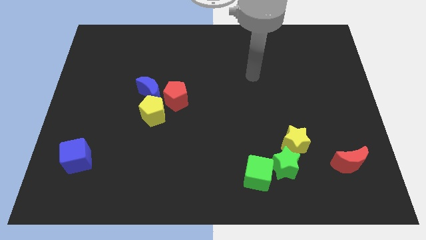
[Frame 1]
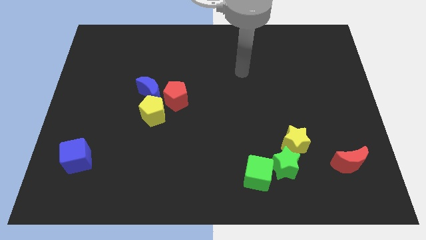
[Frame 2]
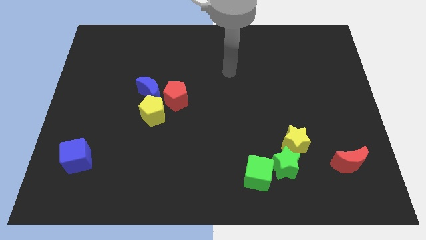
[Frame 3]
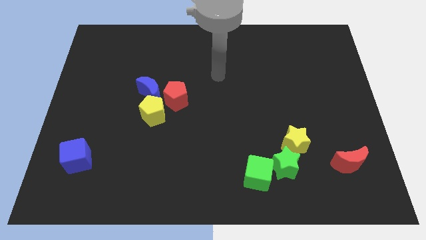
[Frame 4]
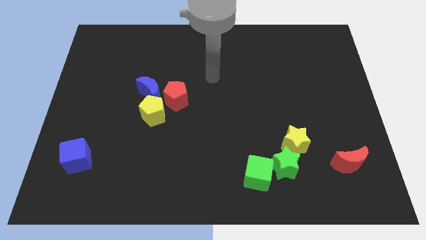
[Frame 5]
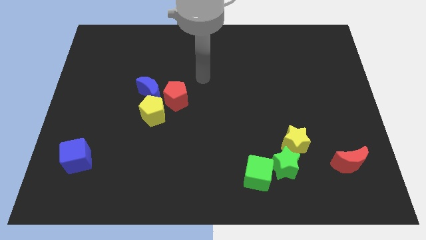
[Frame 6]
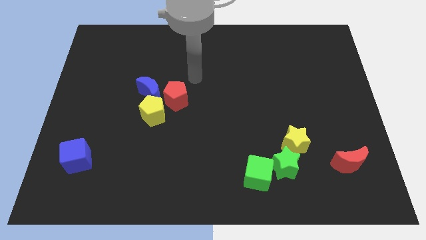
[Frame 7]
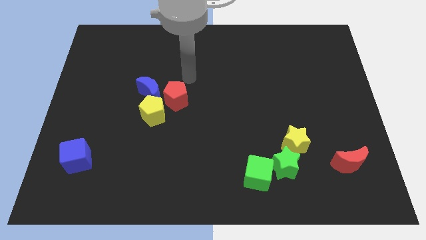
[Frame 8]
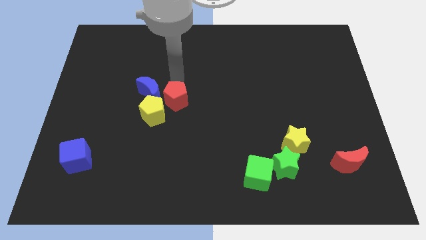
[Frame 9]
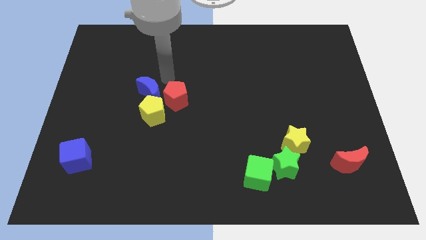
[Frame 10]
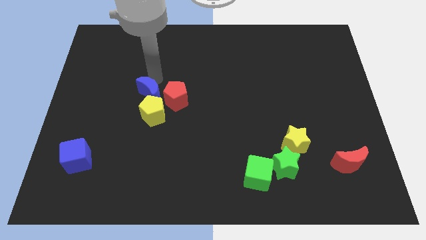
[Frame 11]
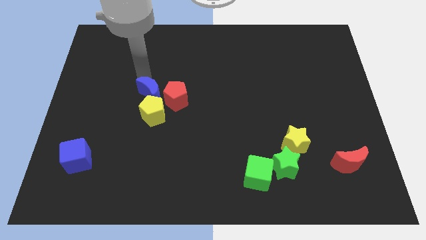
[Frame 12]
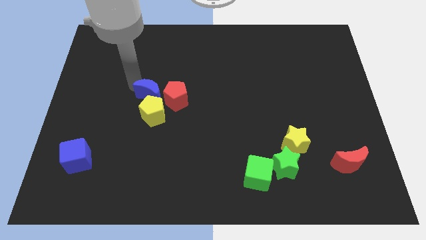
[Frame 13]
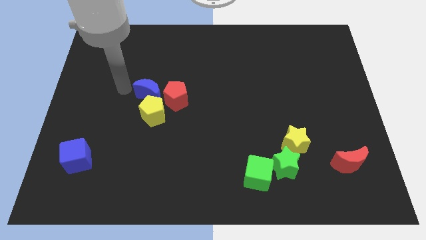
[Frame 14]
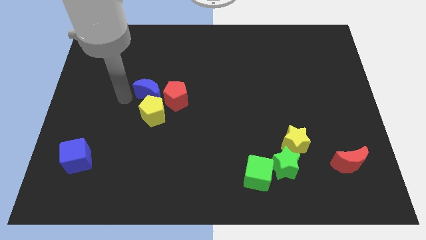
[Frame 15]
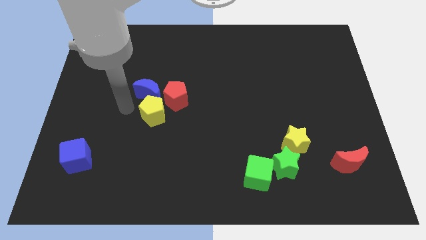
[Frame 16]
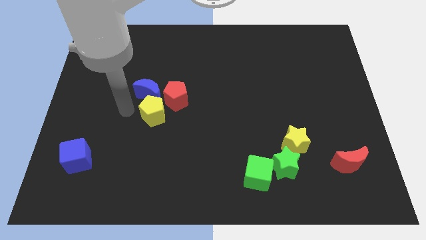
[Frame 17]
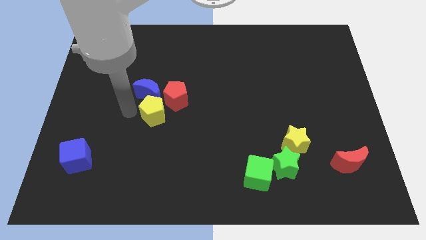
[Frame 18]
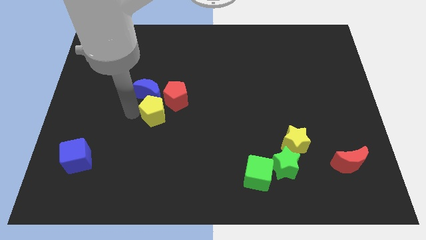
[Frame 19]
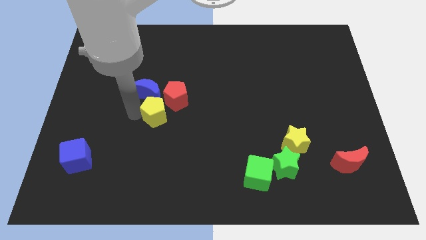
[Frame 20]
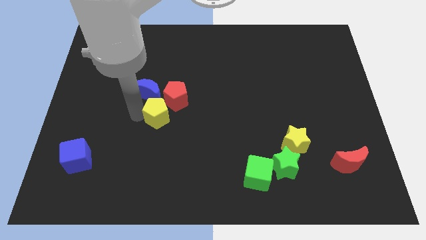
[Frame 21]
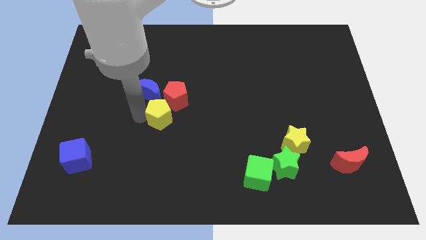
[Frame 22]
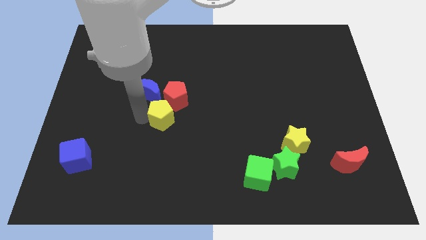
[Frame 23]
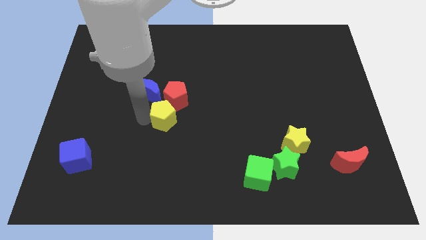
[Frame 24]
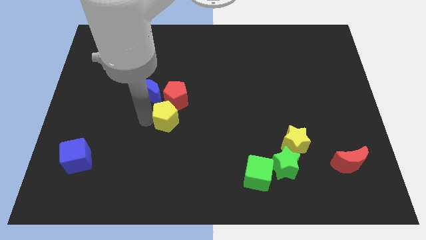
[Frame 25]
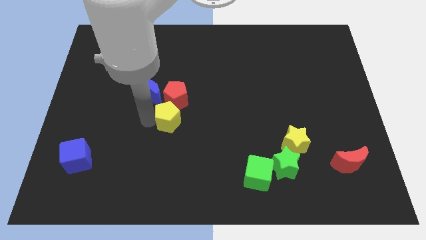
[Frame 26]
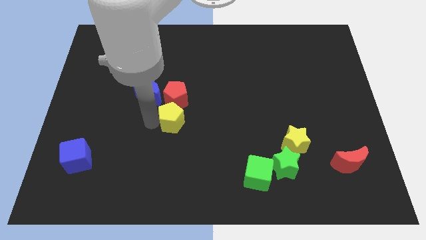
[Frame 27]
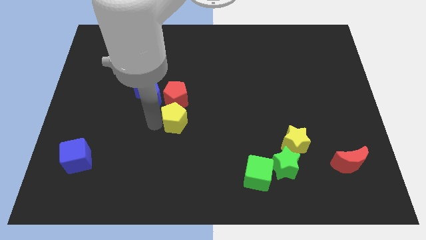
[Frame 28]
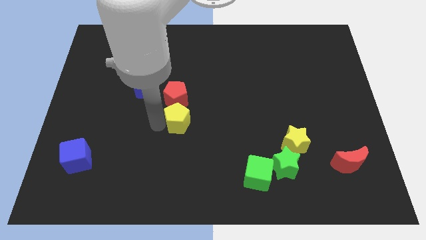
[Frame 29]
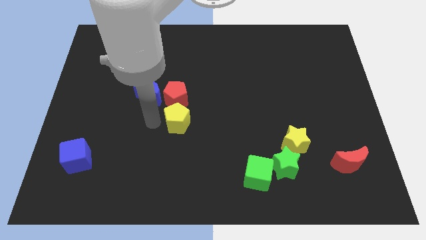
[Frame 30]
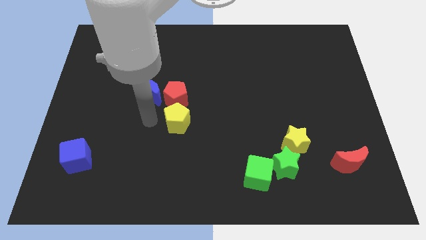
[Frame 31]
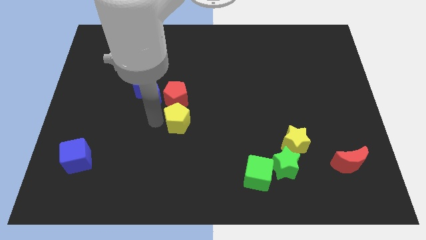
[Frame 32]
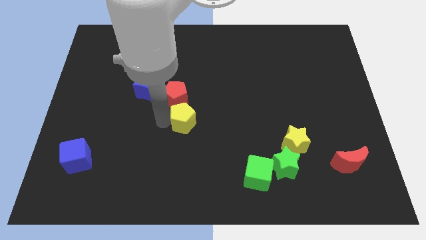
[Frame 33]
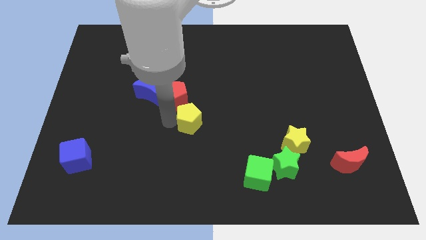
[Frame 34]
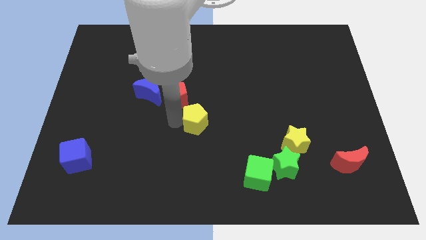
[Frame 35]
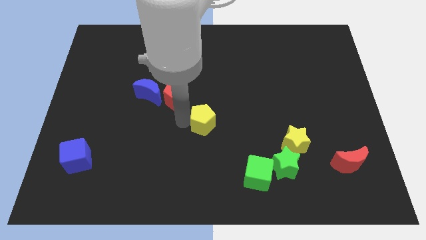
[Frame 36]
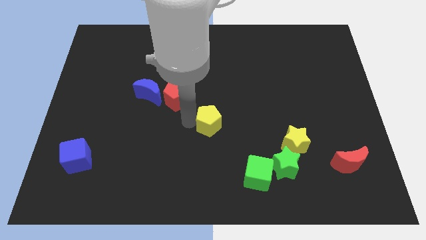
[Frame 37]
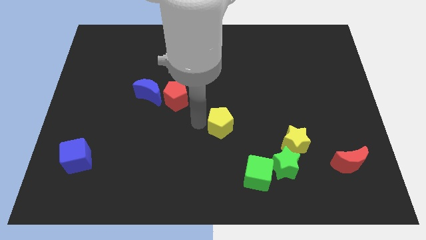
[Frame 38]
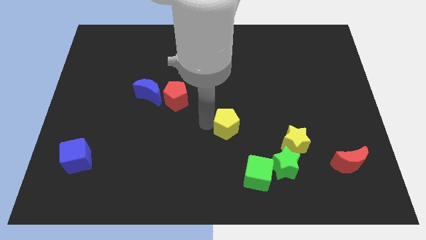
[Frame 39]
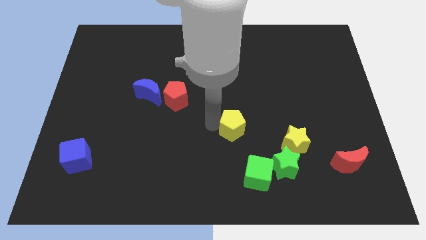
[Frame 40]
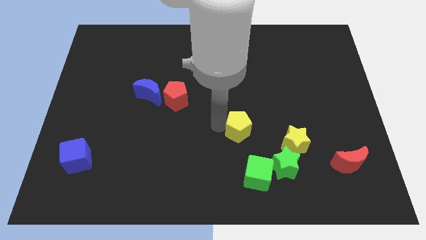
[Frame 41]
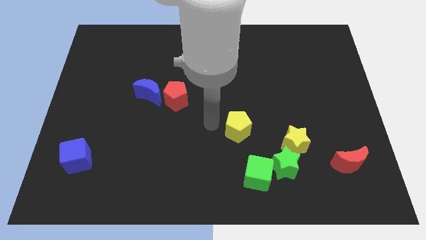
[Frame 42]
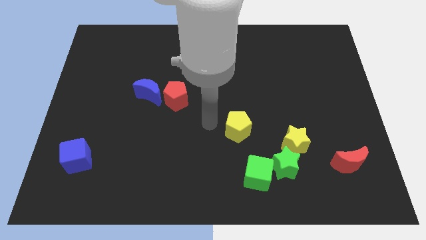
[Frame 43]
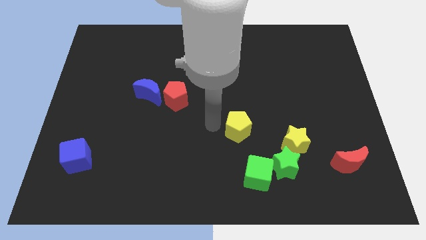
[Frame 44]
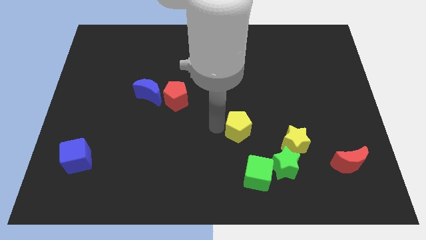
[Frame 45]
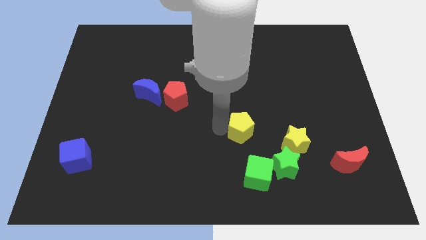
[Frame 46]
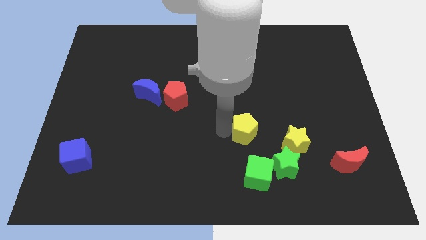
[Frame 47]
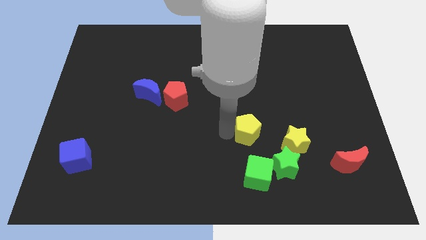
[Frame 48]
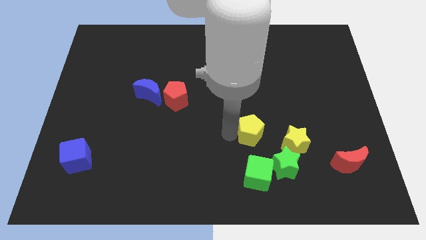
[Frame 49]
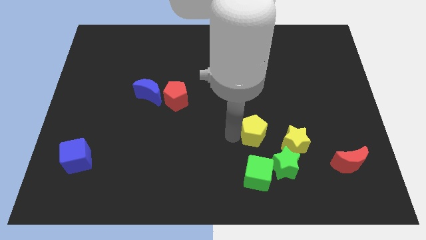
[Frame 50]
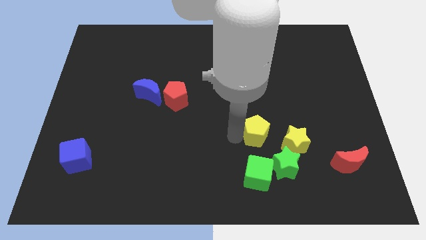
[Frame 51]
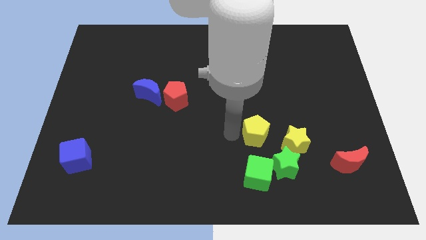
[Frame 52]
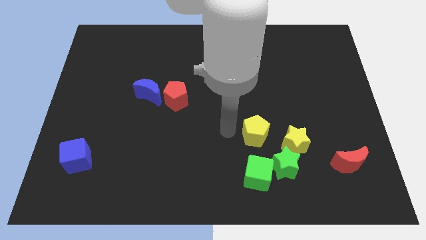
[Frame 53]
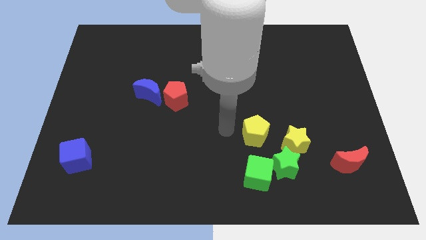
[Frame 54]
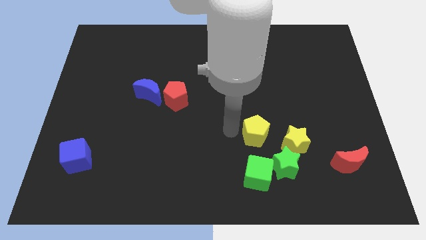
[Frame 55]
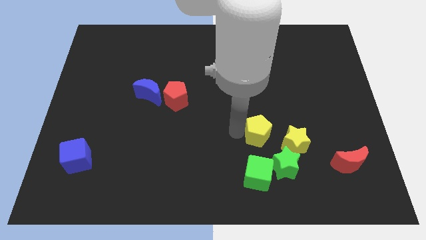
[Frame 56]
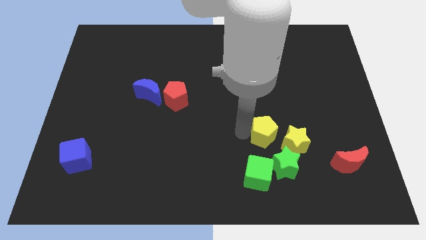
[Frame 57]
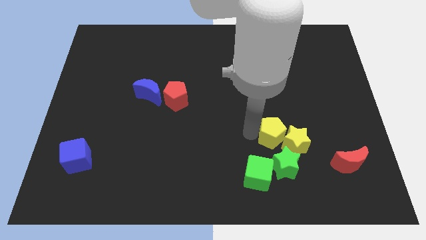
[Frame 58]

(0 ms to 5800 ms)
slide the yellow pentagon to the yellow star

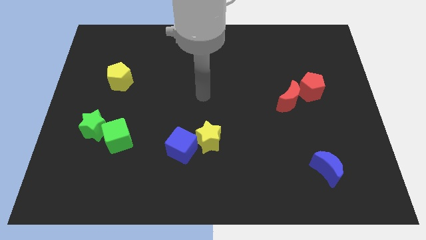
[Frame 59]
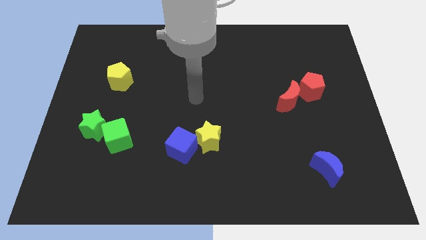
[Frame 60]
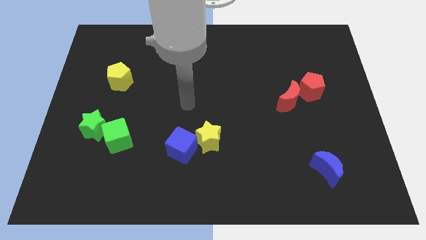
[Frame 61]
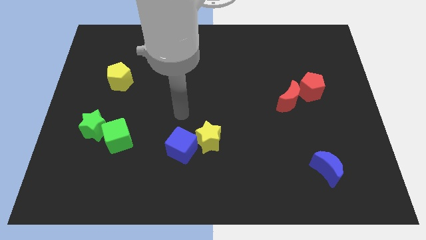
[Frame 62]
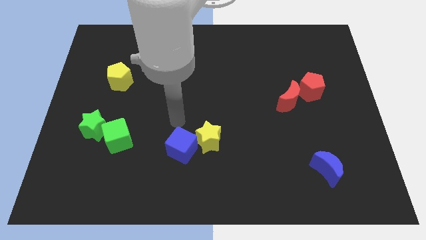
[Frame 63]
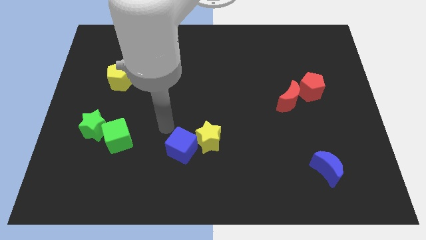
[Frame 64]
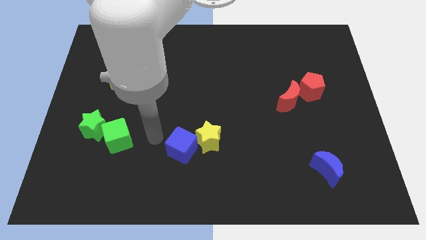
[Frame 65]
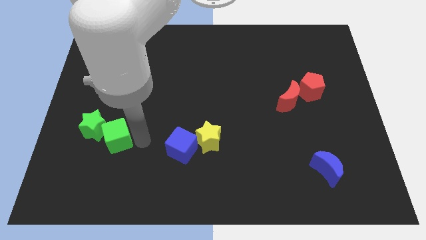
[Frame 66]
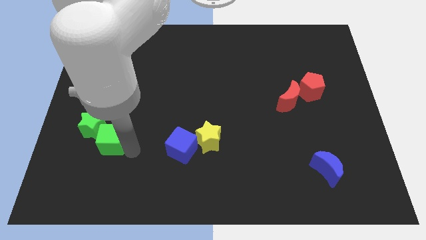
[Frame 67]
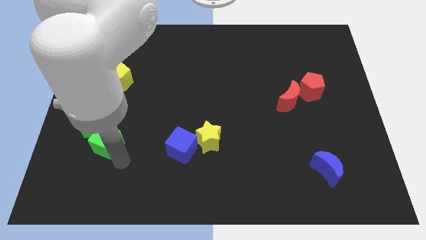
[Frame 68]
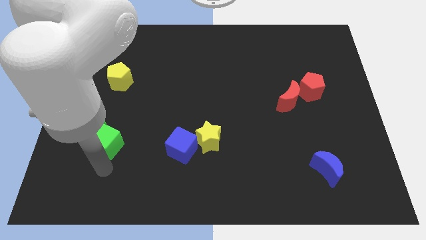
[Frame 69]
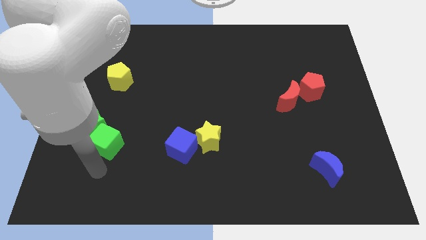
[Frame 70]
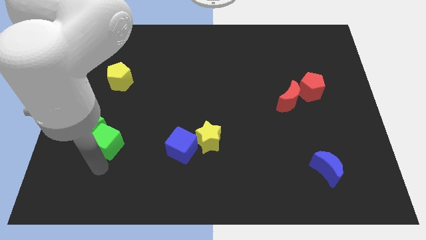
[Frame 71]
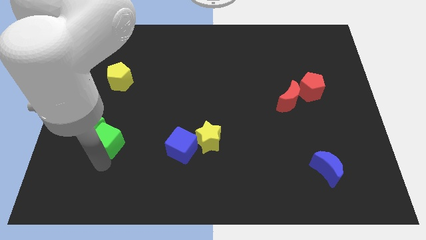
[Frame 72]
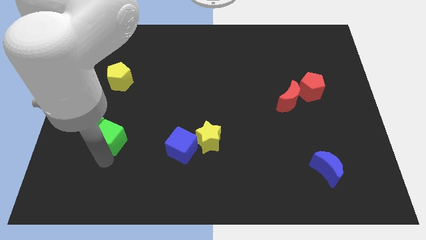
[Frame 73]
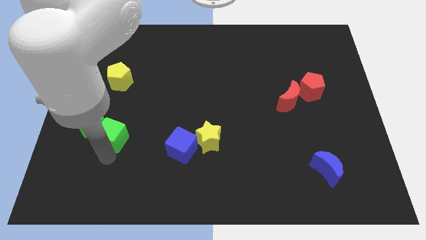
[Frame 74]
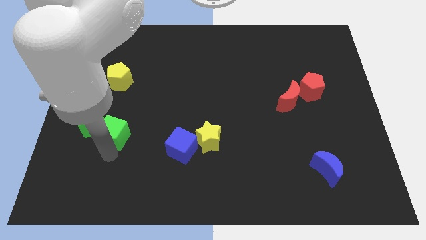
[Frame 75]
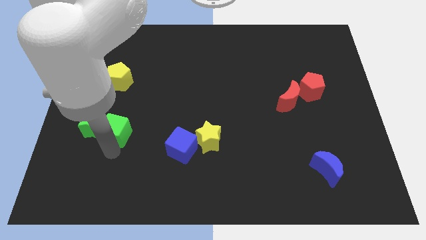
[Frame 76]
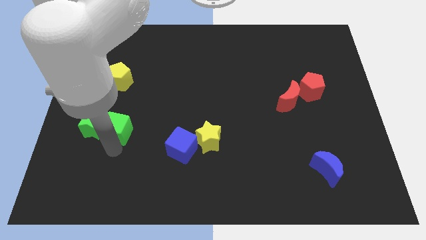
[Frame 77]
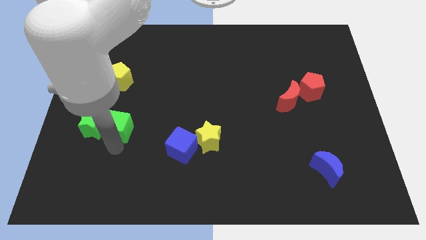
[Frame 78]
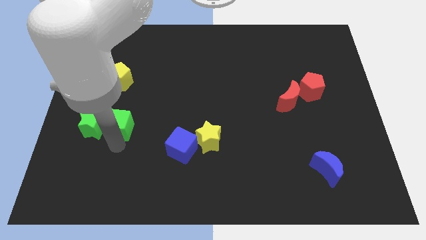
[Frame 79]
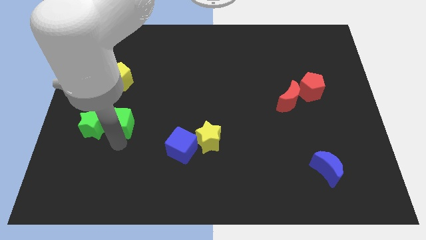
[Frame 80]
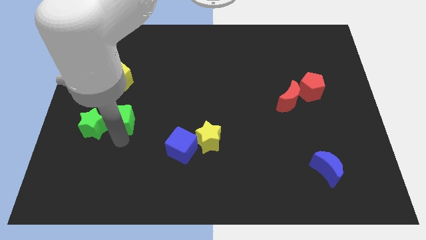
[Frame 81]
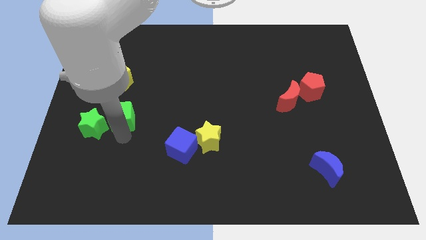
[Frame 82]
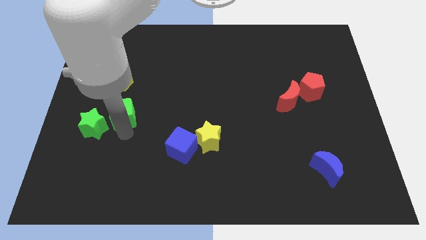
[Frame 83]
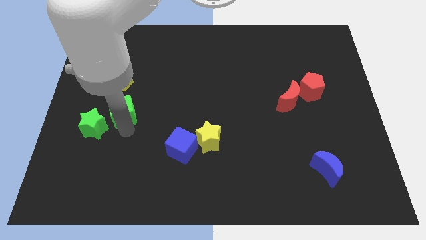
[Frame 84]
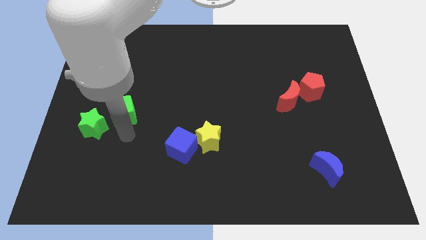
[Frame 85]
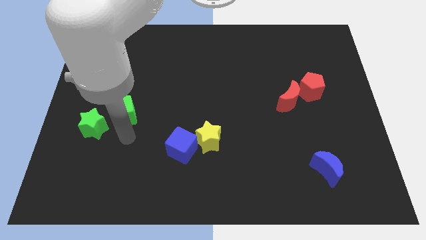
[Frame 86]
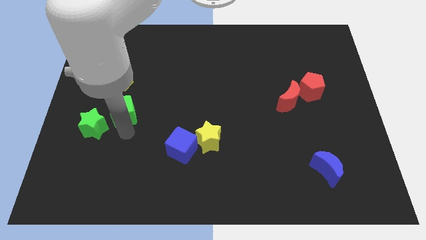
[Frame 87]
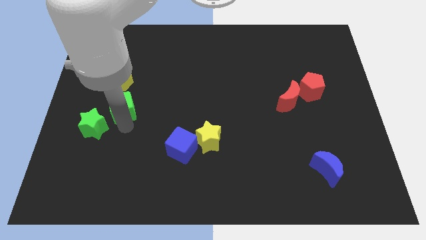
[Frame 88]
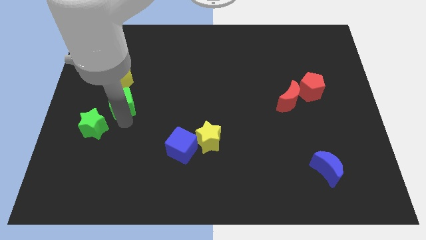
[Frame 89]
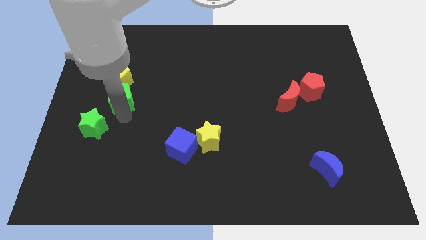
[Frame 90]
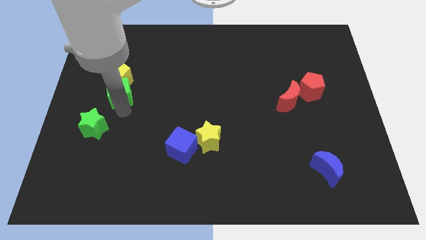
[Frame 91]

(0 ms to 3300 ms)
move the green cube next to the yellow pentagon
